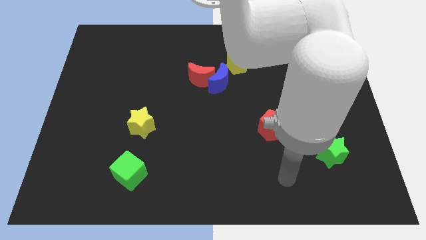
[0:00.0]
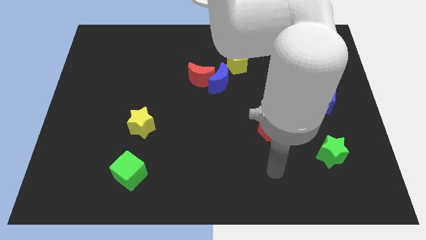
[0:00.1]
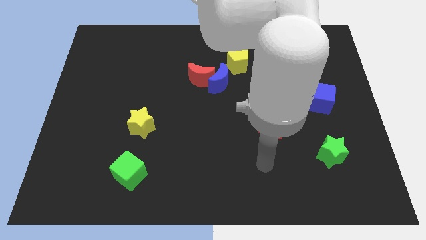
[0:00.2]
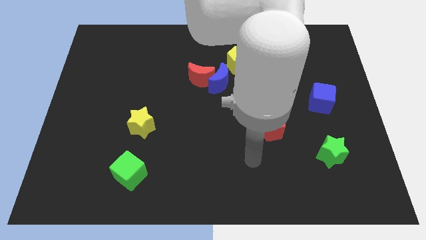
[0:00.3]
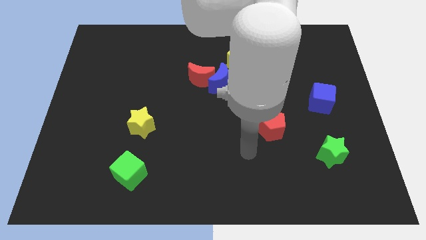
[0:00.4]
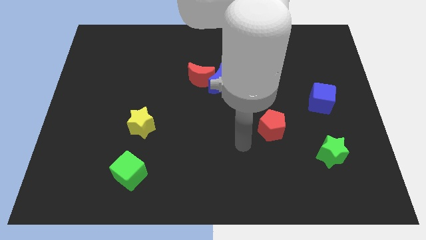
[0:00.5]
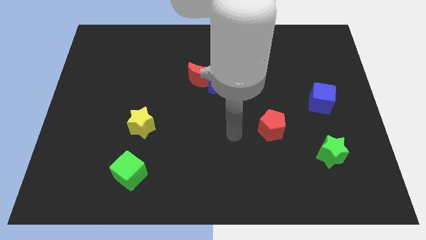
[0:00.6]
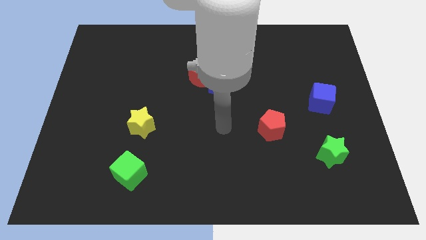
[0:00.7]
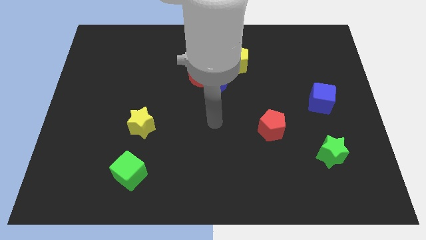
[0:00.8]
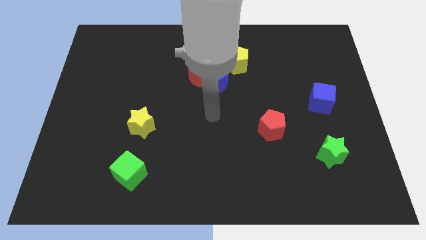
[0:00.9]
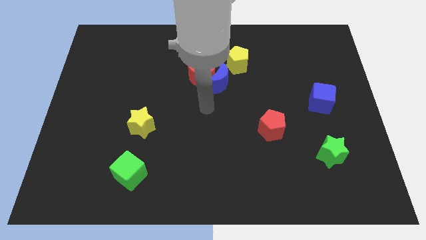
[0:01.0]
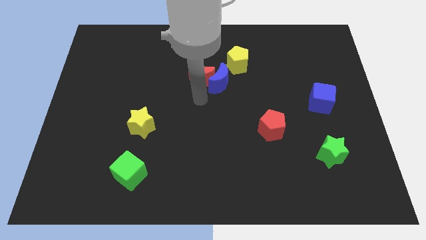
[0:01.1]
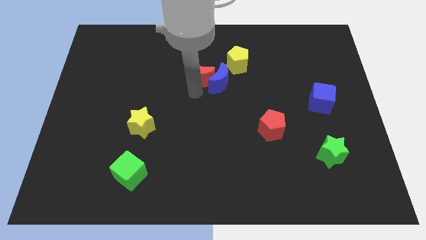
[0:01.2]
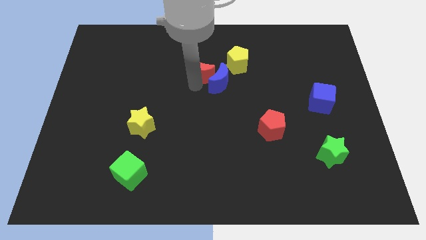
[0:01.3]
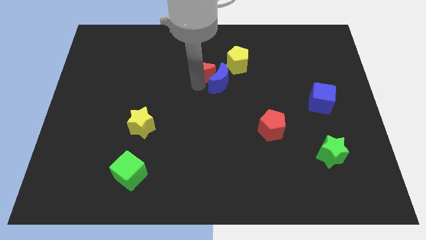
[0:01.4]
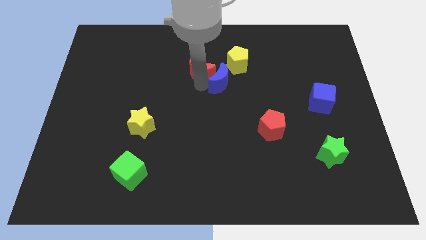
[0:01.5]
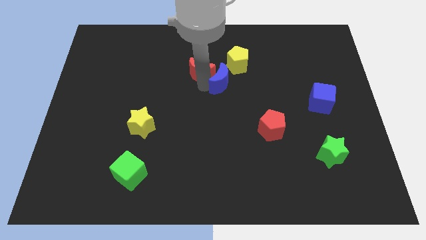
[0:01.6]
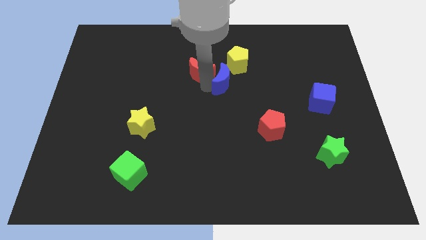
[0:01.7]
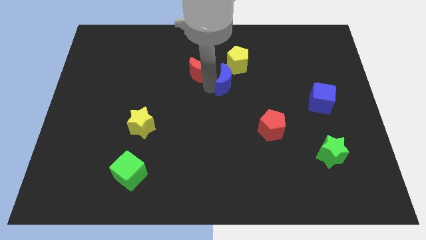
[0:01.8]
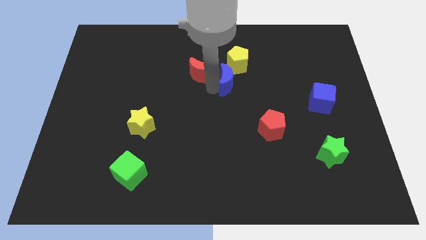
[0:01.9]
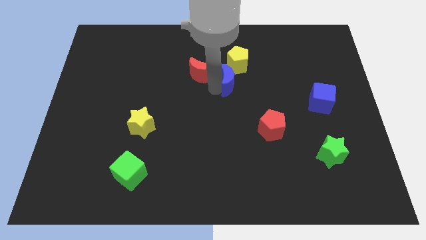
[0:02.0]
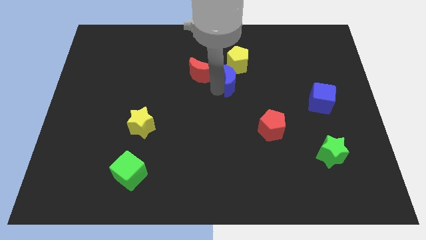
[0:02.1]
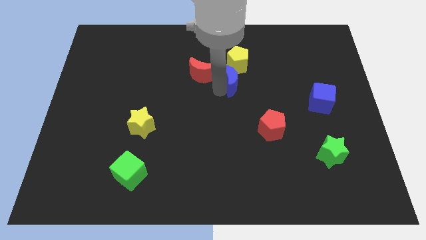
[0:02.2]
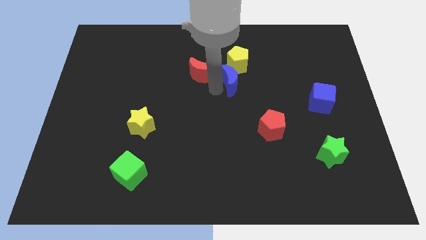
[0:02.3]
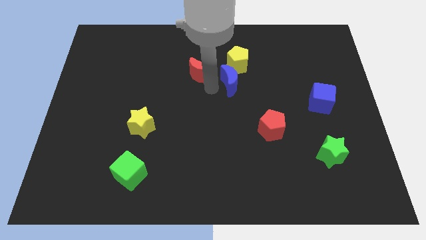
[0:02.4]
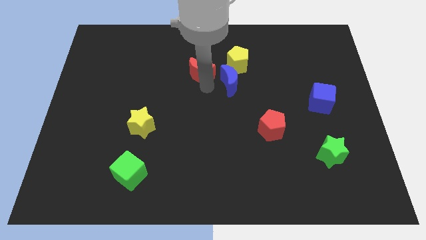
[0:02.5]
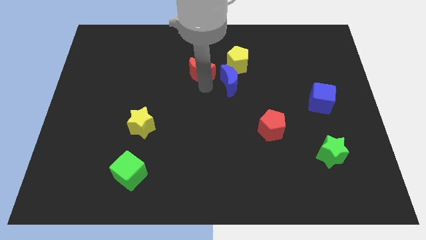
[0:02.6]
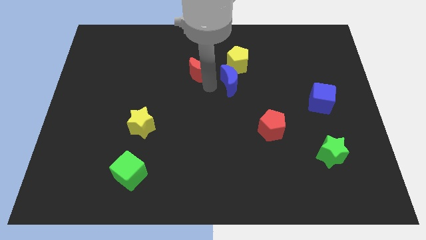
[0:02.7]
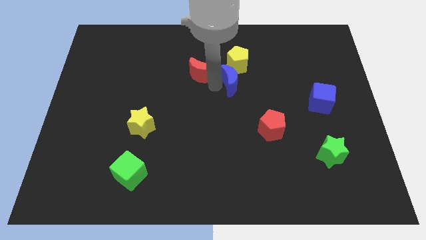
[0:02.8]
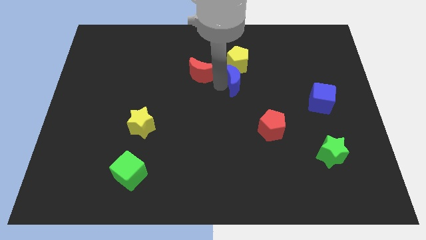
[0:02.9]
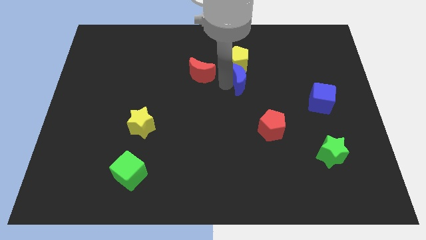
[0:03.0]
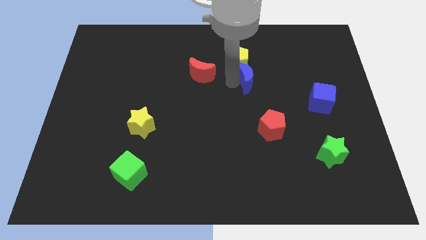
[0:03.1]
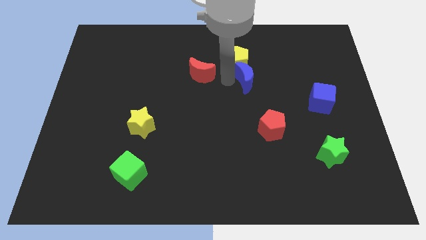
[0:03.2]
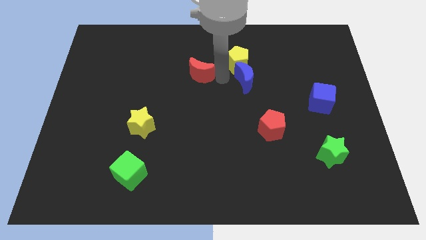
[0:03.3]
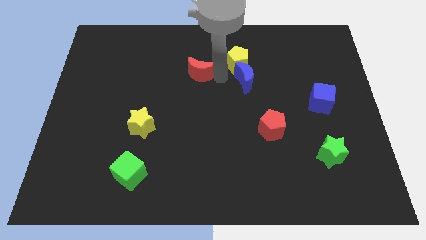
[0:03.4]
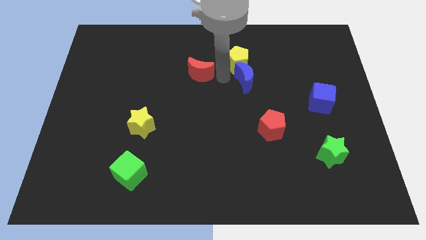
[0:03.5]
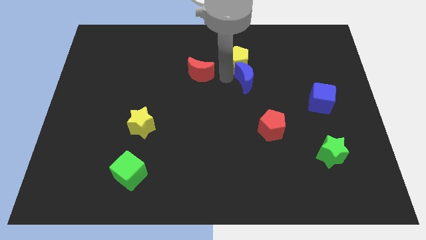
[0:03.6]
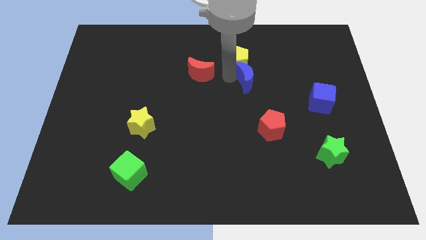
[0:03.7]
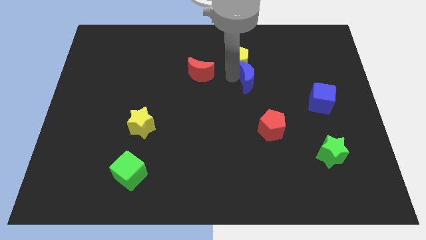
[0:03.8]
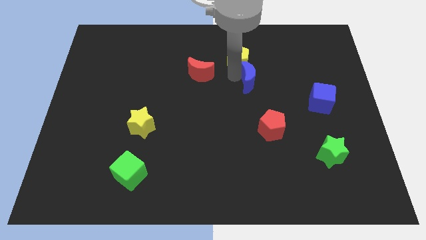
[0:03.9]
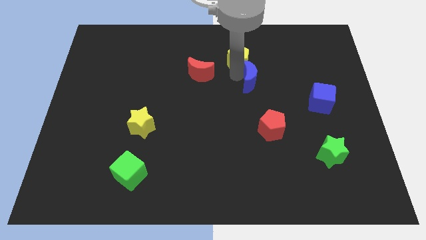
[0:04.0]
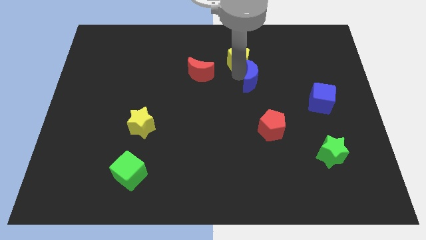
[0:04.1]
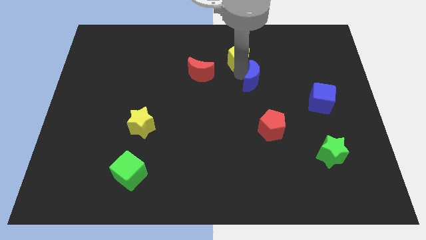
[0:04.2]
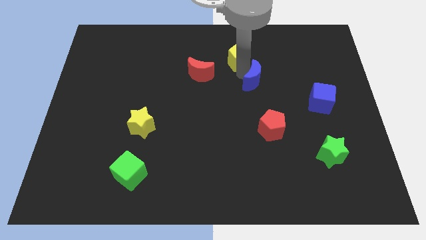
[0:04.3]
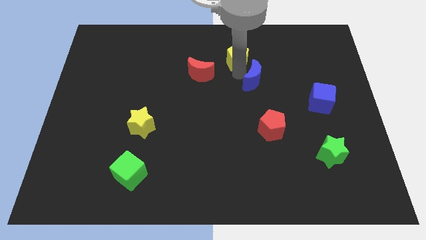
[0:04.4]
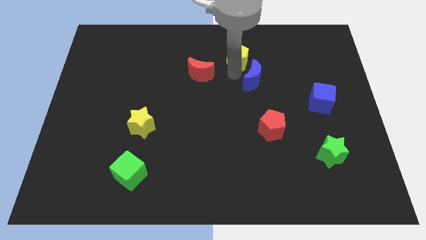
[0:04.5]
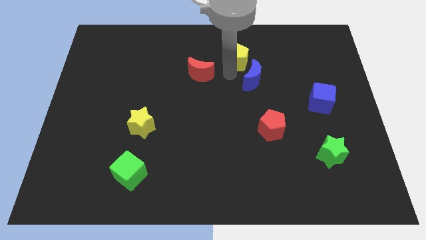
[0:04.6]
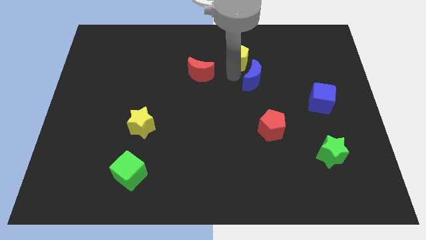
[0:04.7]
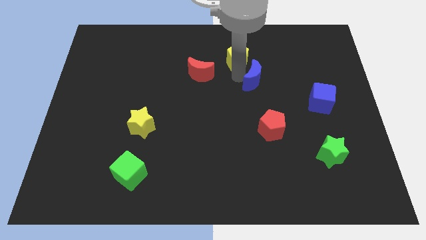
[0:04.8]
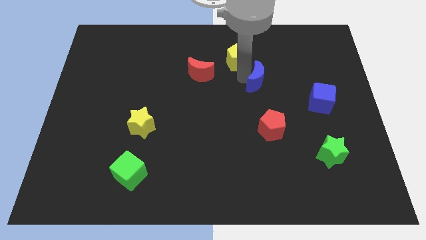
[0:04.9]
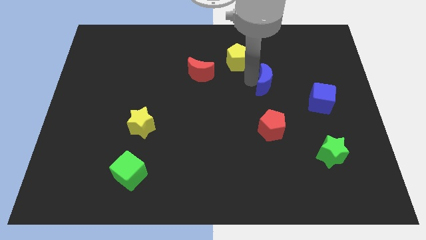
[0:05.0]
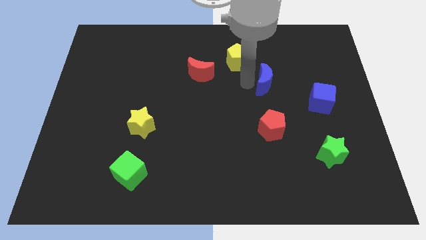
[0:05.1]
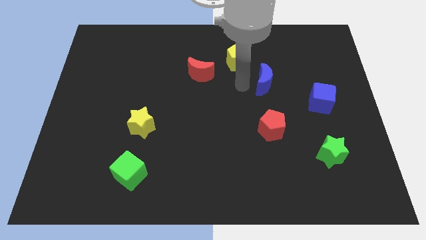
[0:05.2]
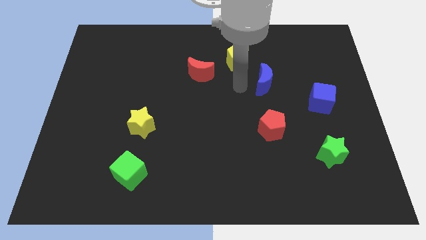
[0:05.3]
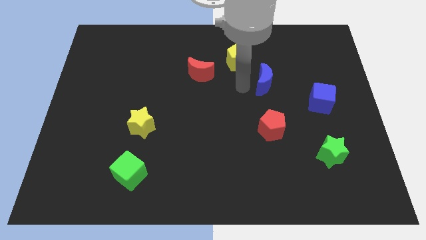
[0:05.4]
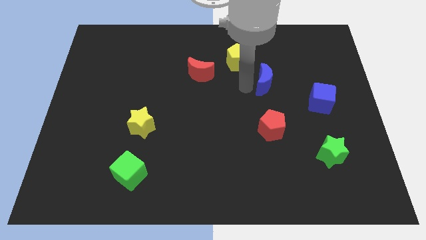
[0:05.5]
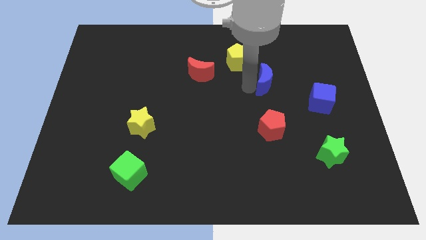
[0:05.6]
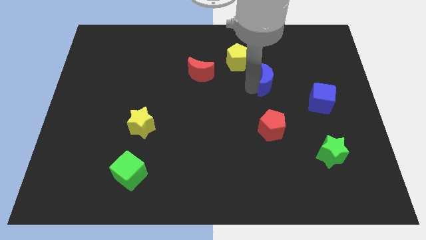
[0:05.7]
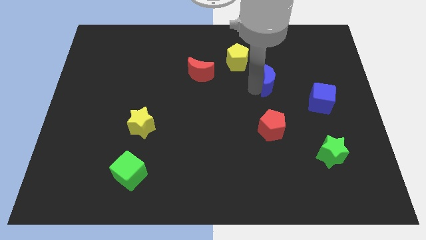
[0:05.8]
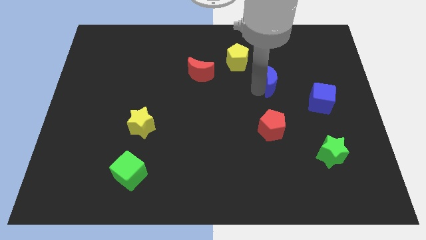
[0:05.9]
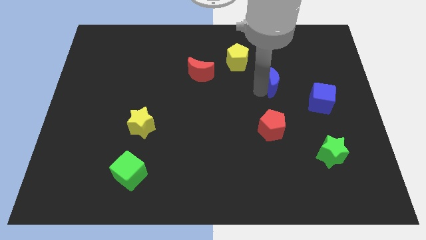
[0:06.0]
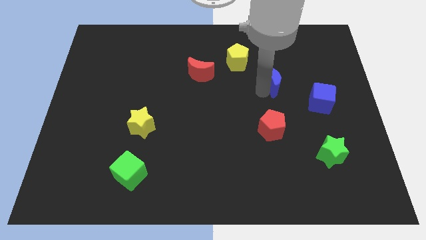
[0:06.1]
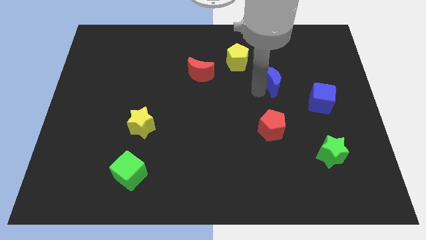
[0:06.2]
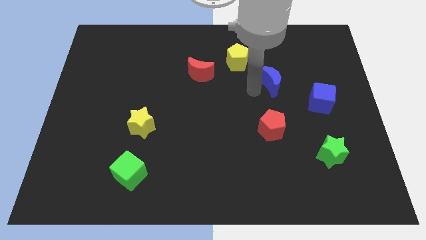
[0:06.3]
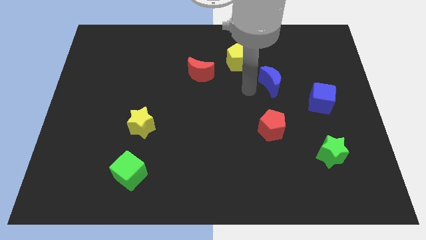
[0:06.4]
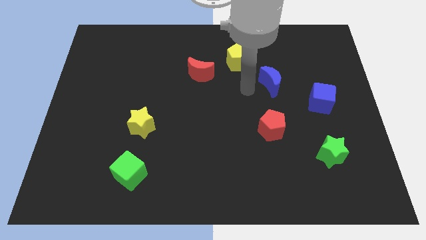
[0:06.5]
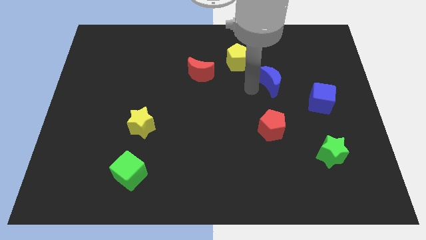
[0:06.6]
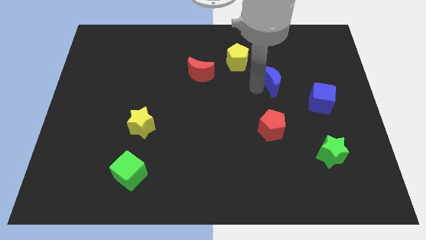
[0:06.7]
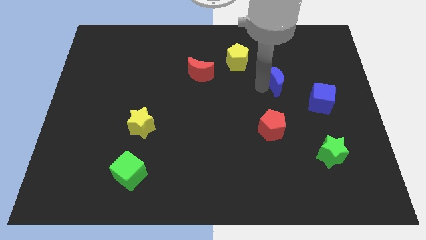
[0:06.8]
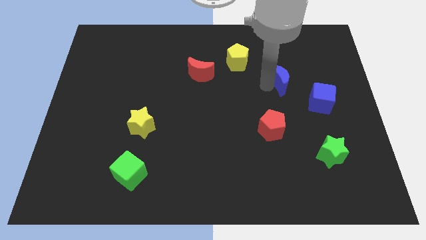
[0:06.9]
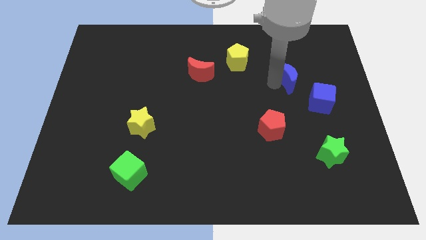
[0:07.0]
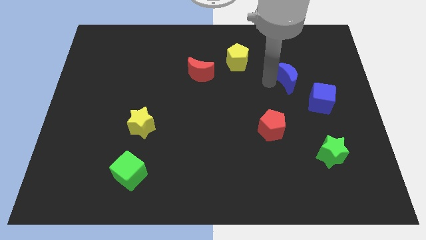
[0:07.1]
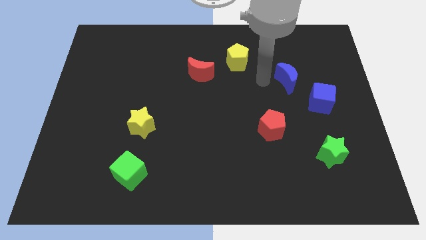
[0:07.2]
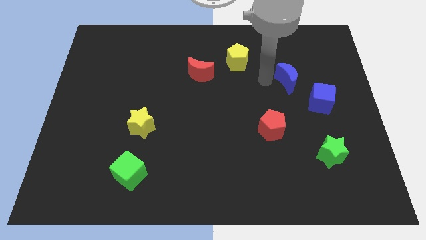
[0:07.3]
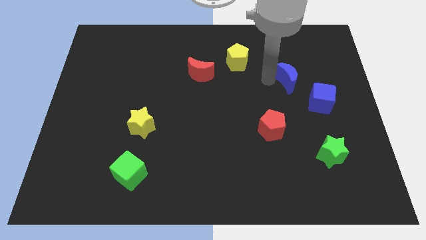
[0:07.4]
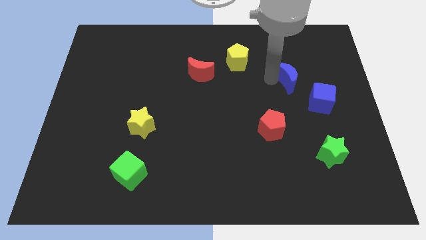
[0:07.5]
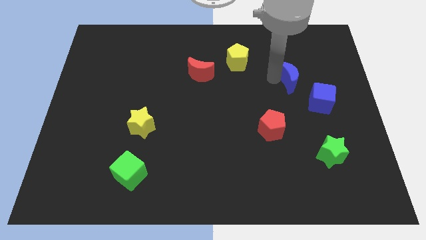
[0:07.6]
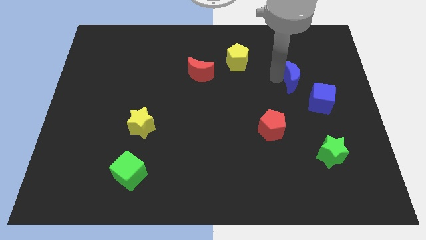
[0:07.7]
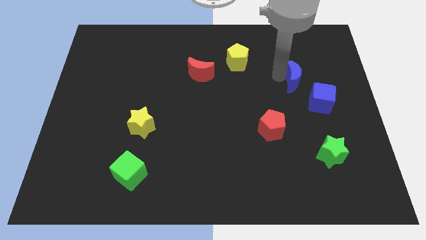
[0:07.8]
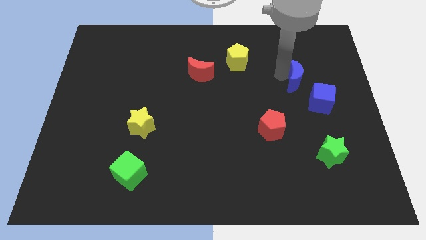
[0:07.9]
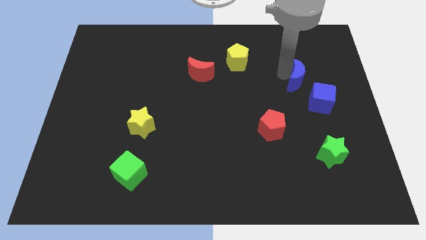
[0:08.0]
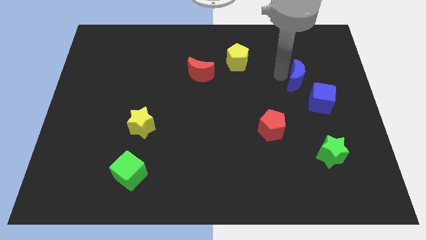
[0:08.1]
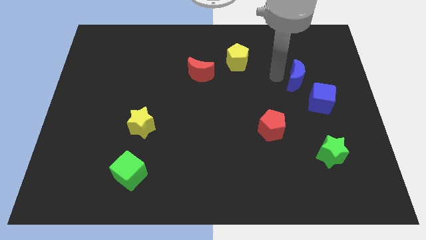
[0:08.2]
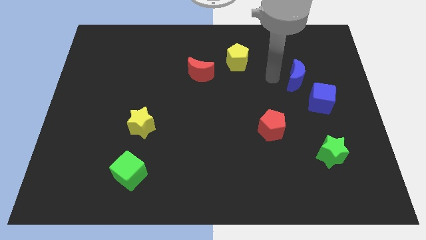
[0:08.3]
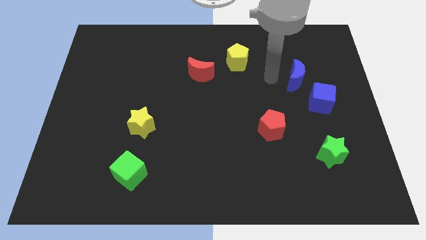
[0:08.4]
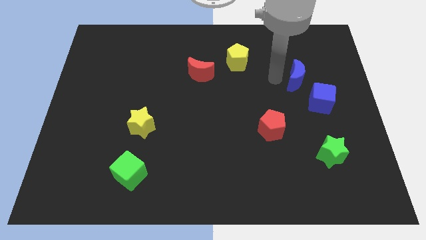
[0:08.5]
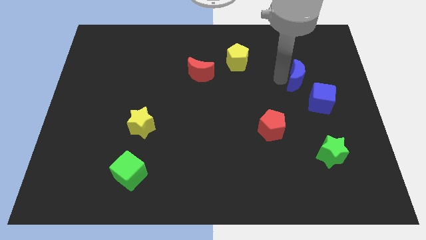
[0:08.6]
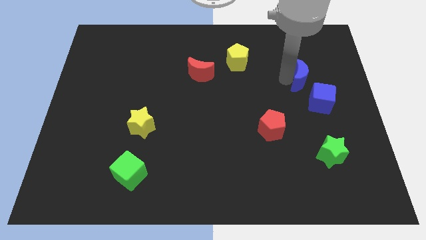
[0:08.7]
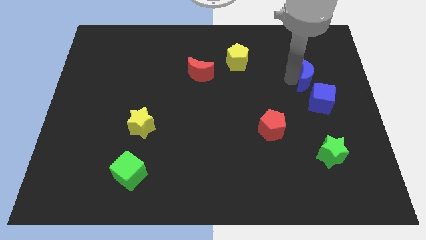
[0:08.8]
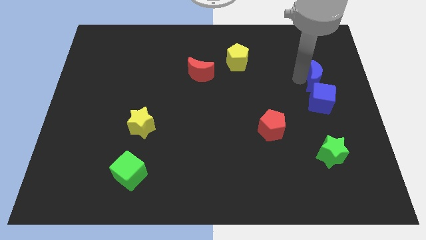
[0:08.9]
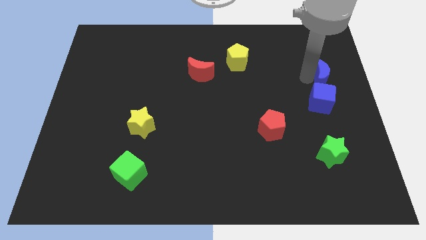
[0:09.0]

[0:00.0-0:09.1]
slide the blue moon to the right side of the board
